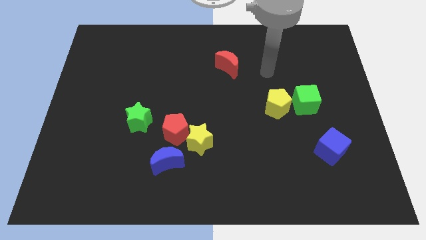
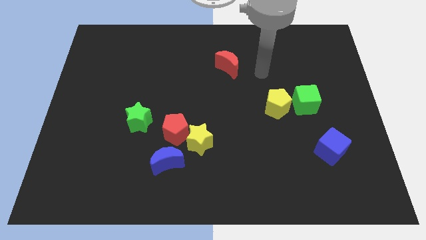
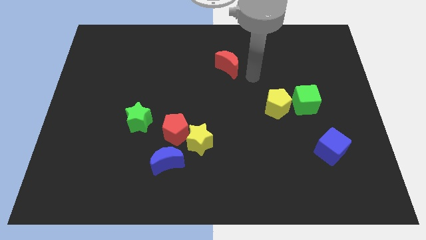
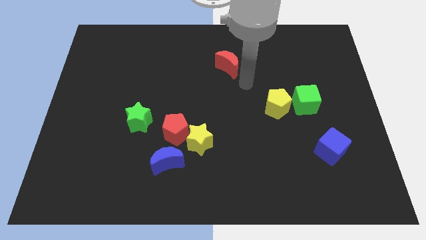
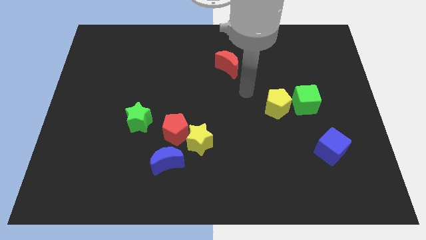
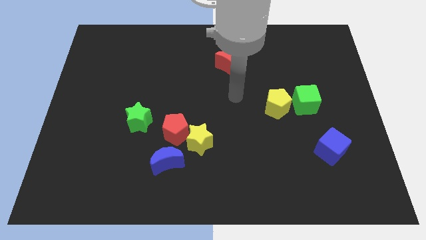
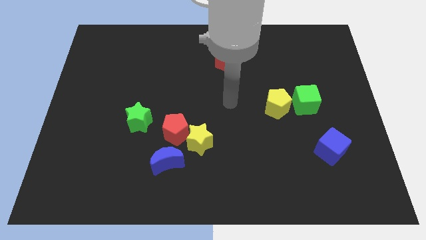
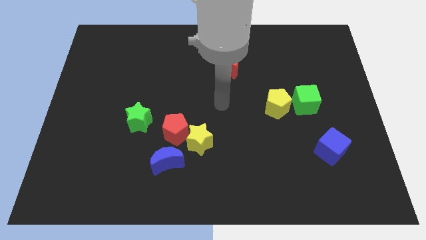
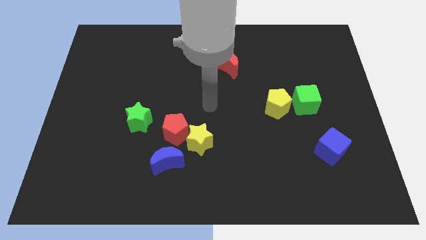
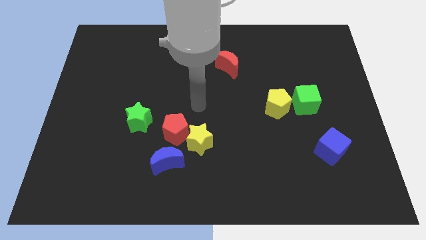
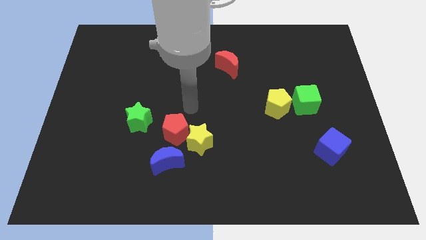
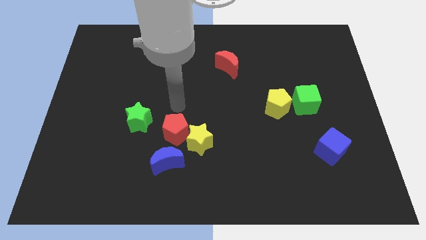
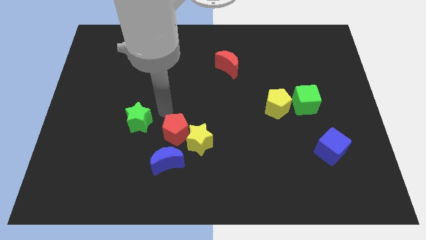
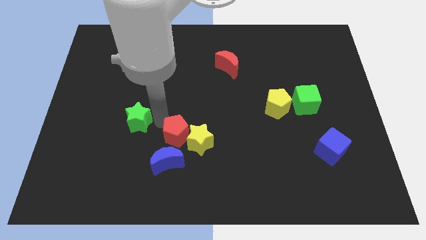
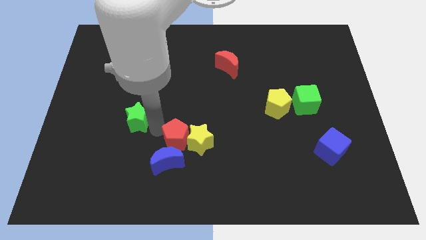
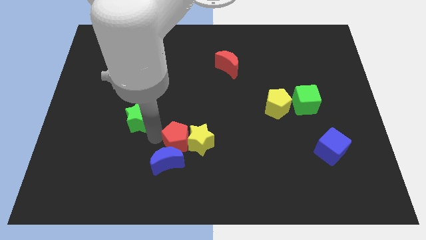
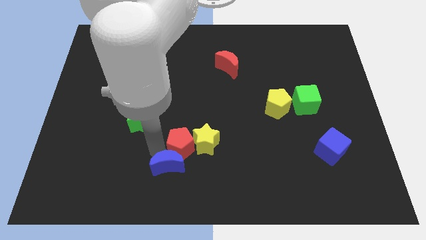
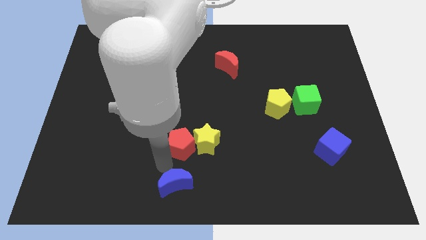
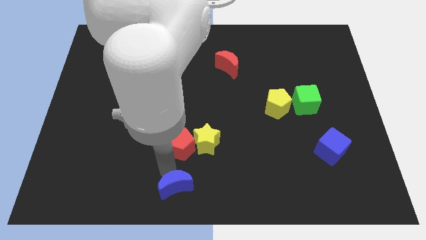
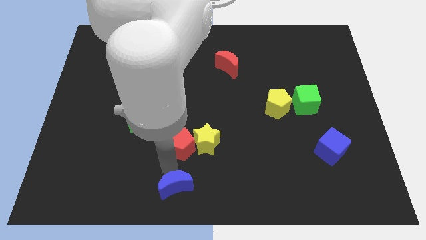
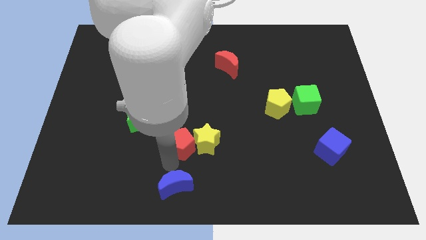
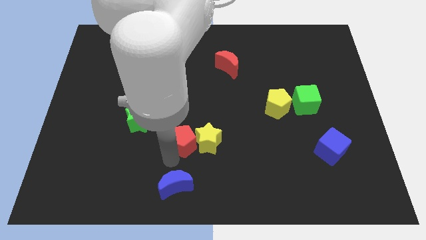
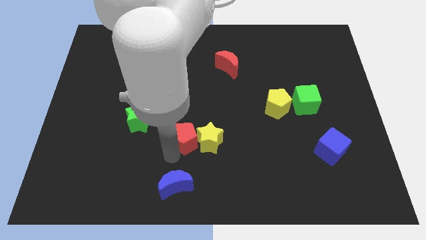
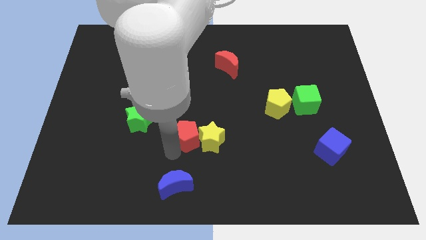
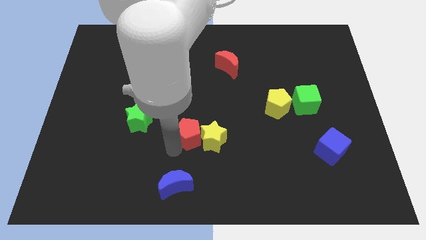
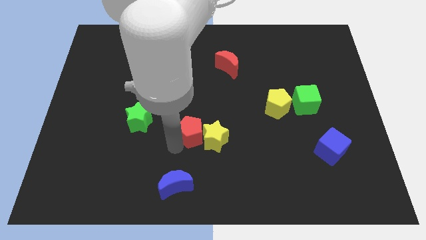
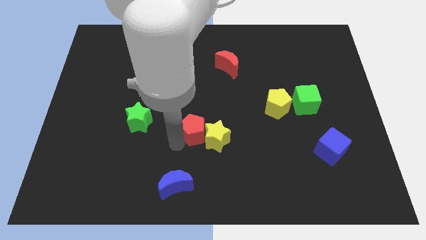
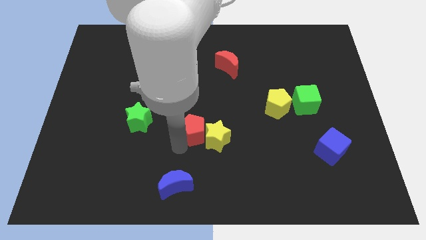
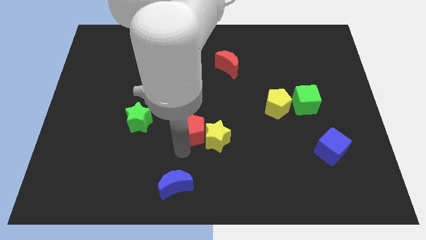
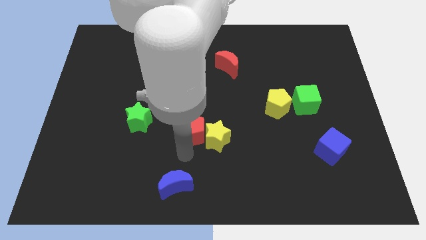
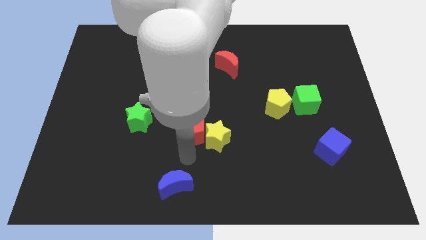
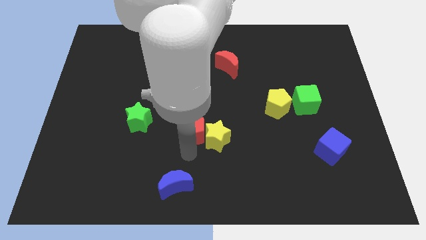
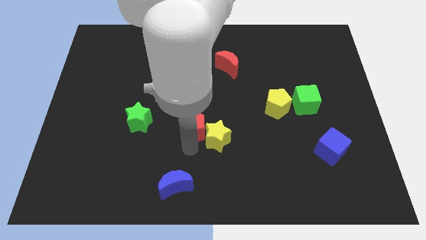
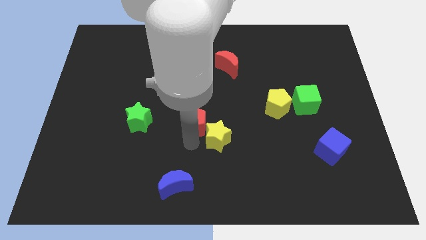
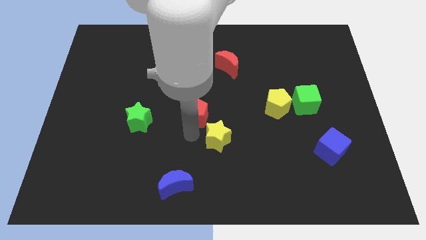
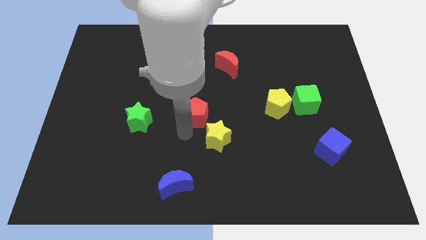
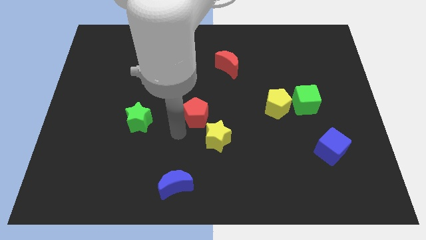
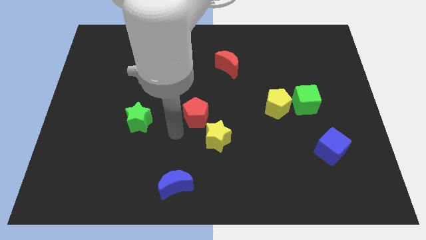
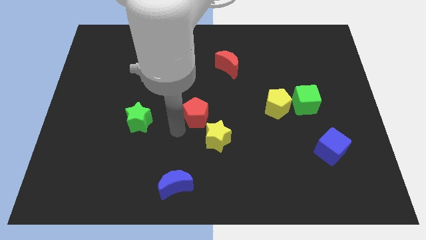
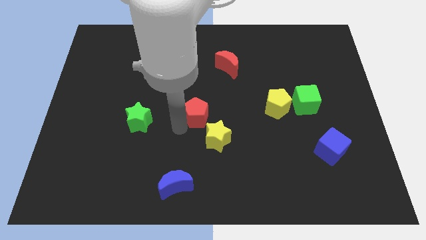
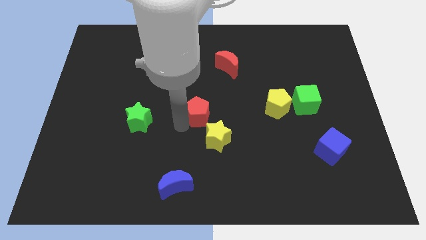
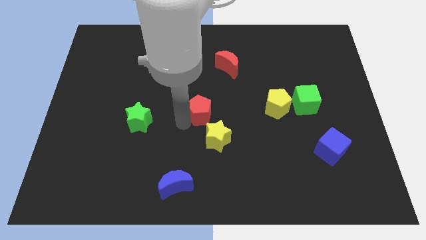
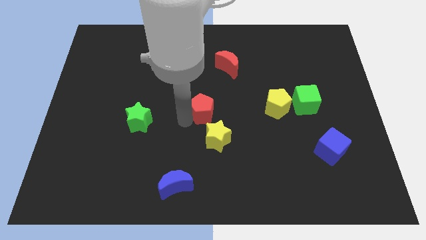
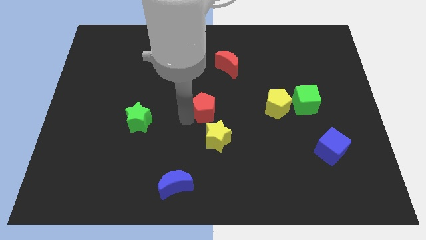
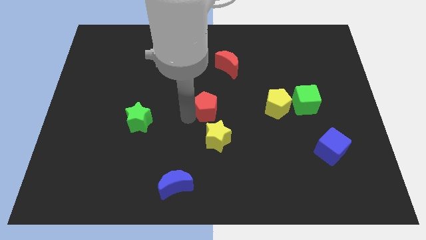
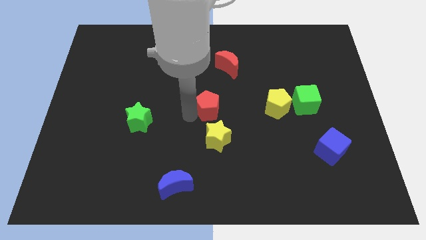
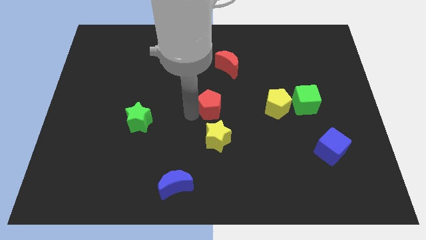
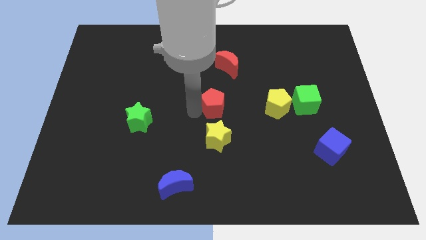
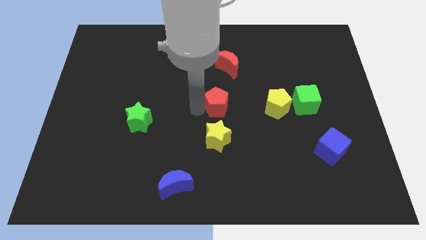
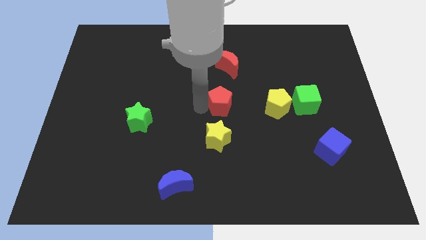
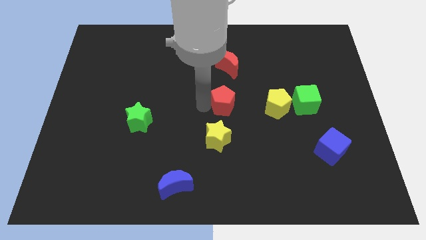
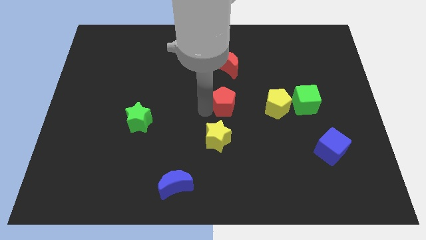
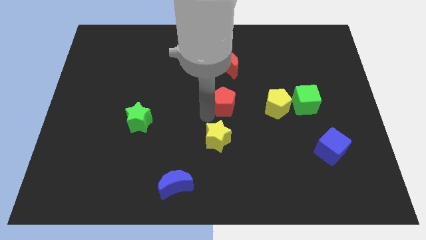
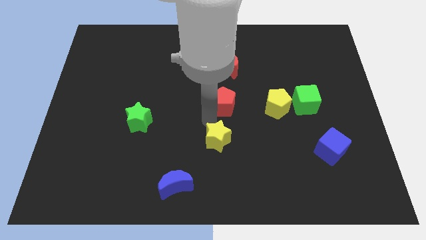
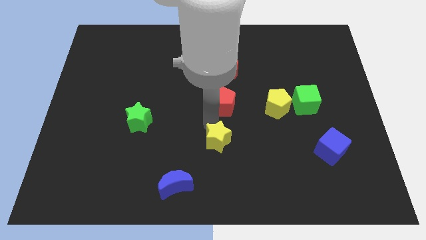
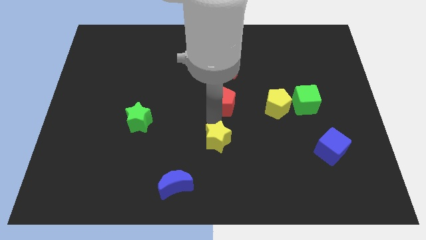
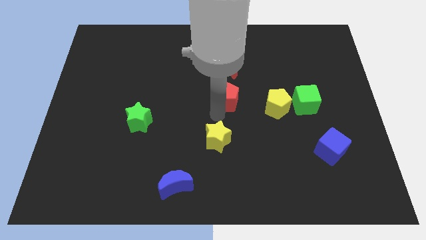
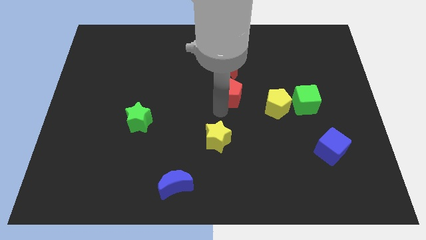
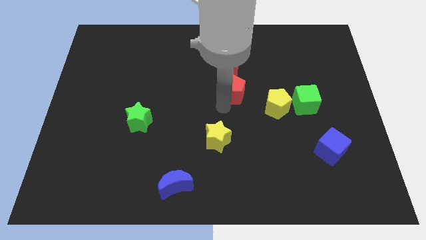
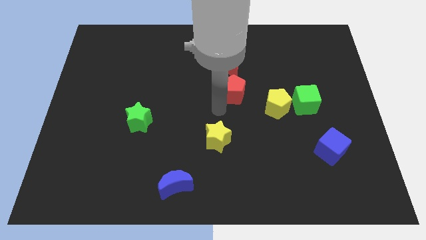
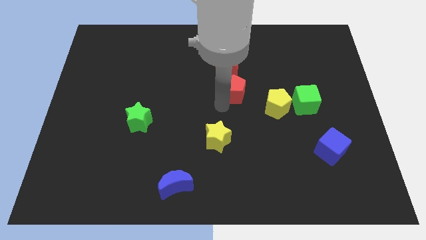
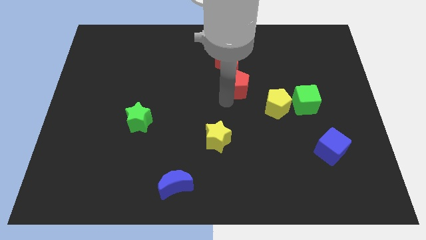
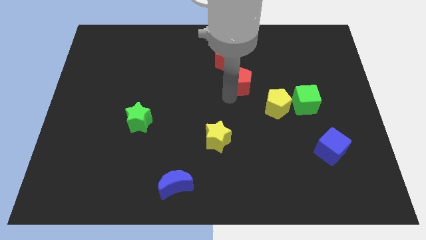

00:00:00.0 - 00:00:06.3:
push the red pentagon diagonally up and to the right

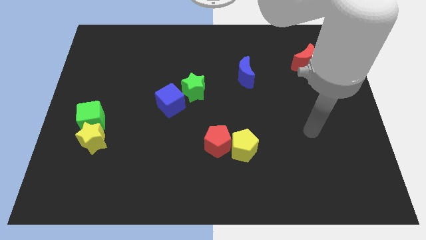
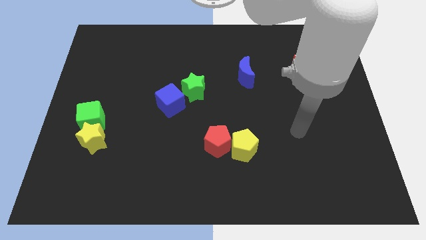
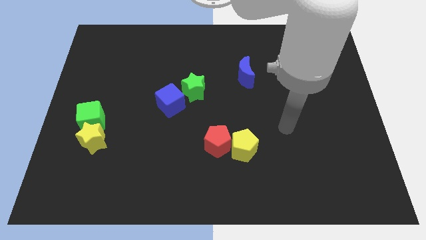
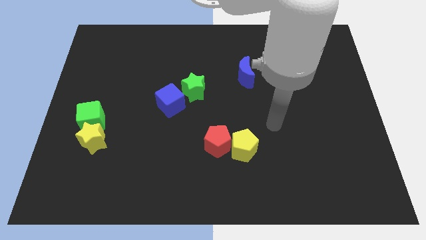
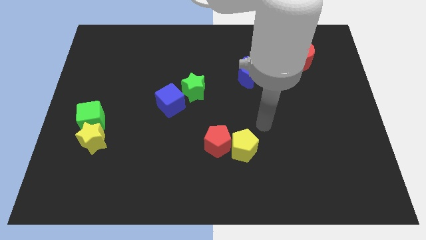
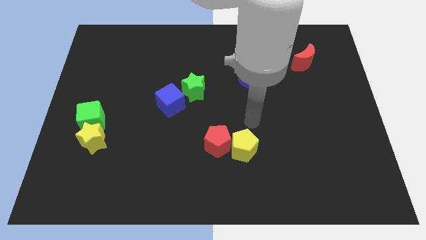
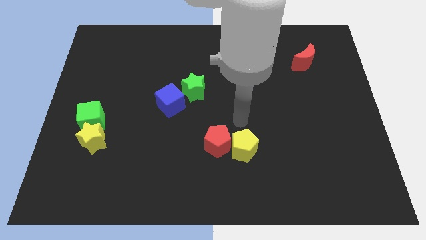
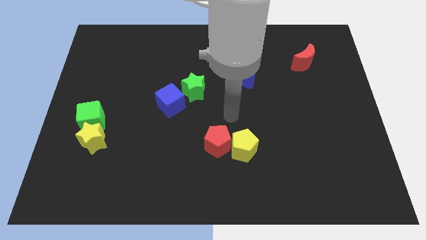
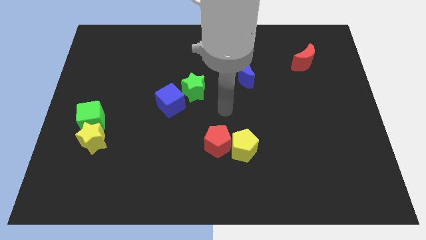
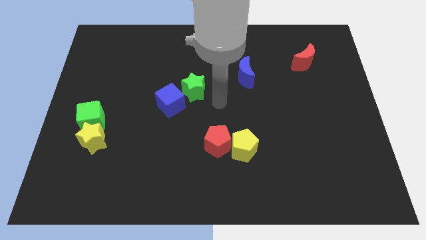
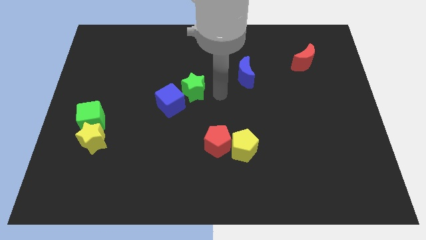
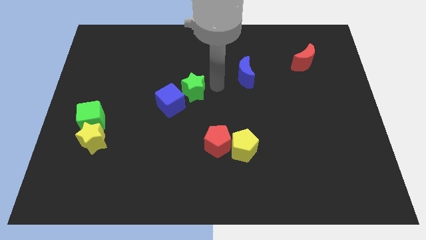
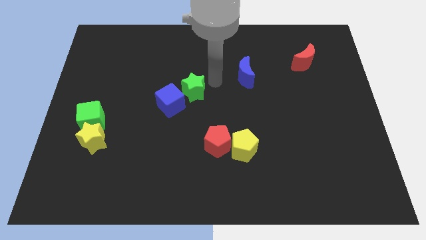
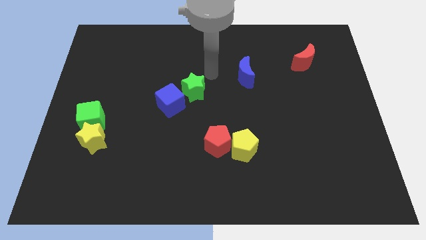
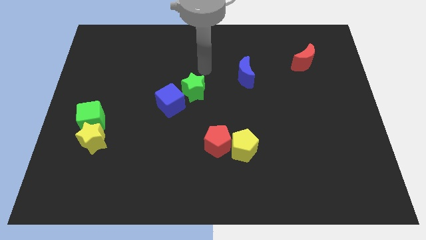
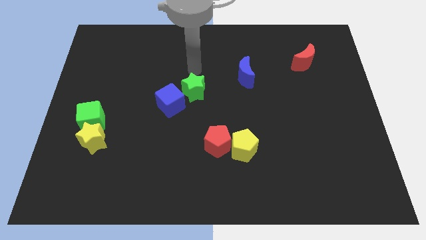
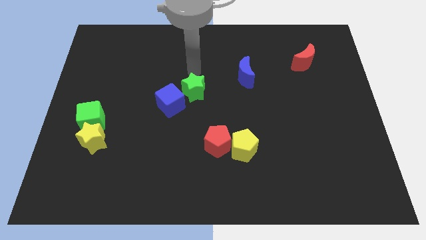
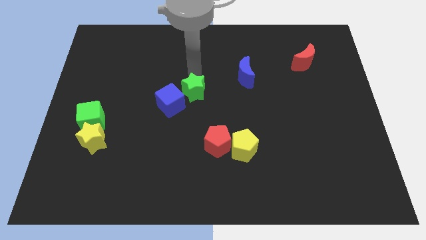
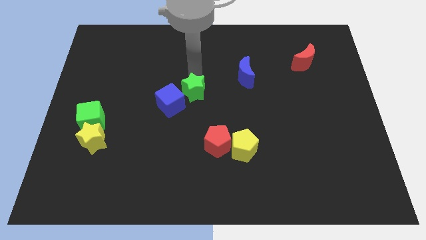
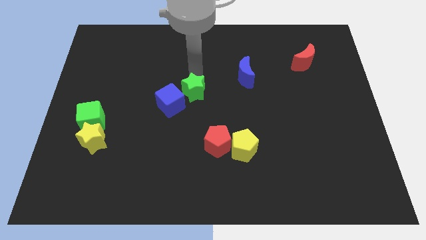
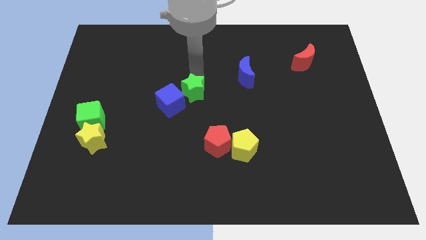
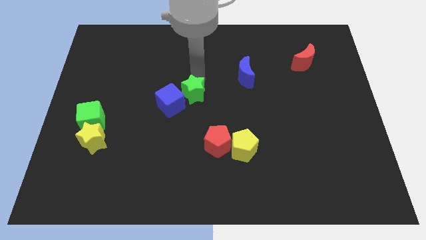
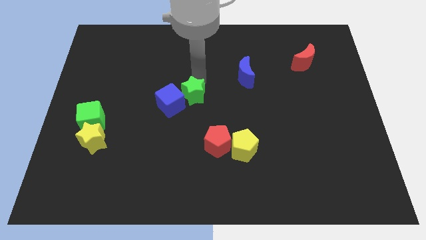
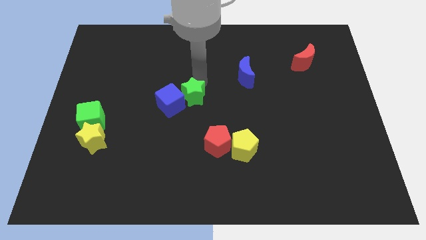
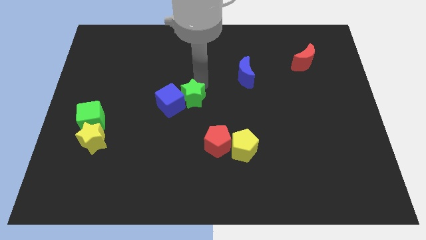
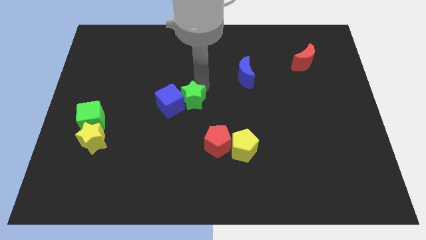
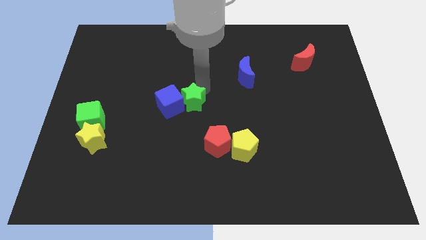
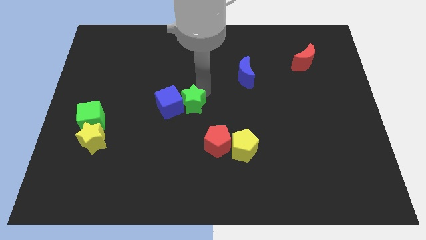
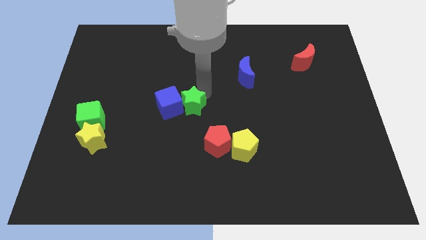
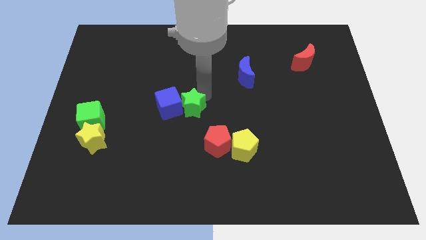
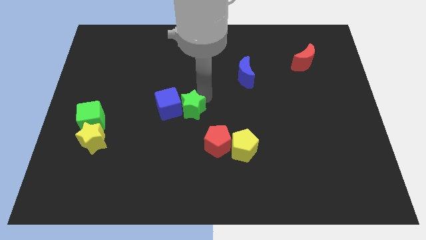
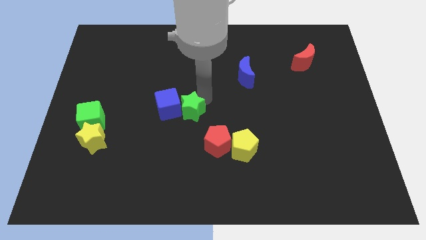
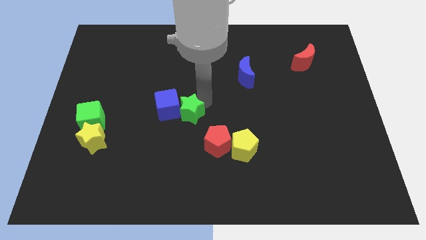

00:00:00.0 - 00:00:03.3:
slide the green star down somewhat
